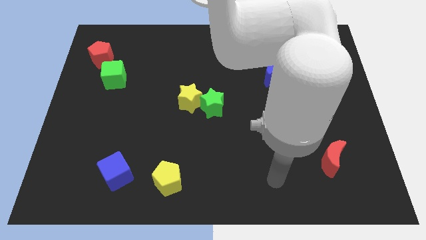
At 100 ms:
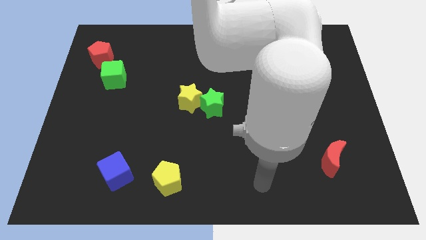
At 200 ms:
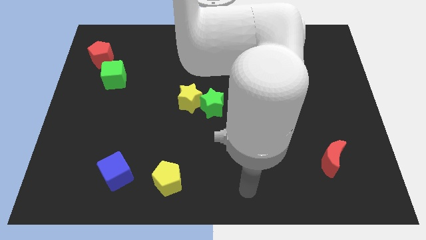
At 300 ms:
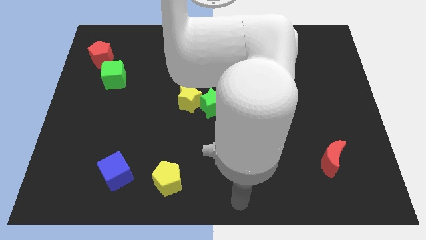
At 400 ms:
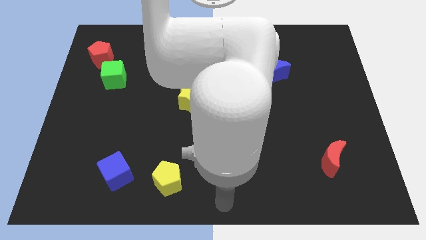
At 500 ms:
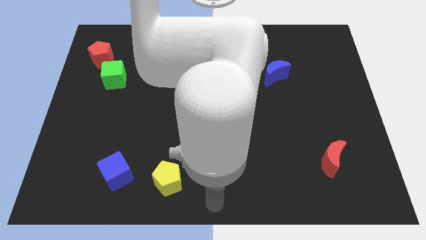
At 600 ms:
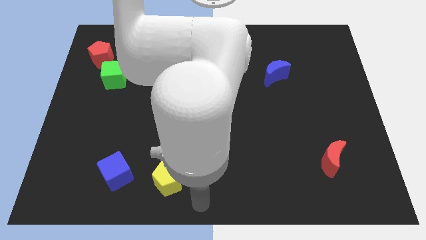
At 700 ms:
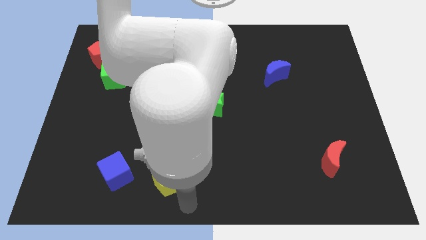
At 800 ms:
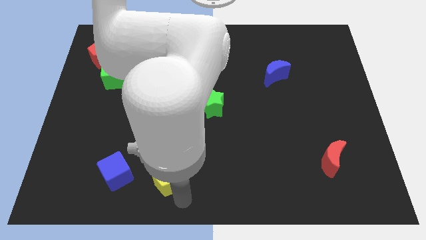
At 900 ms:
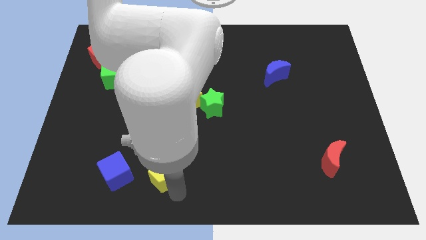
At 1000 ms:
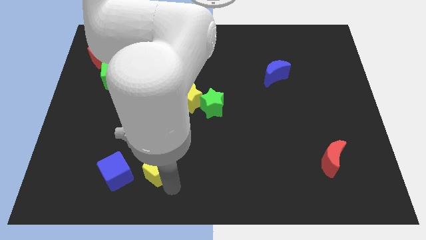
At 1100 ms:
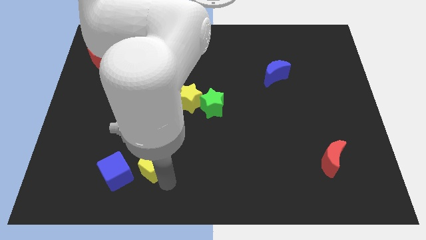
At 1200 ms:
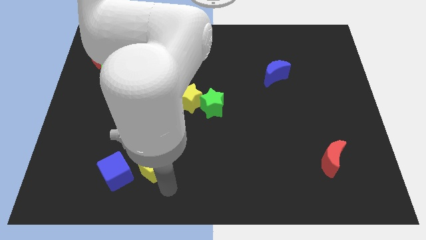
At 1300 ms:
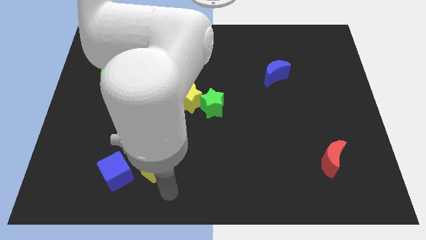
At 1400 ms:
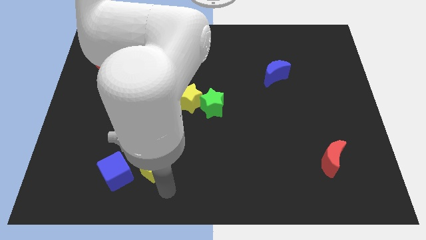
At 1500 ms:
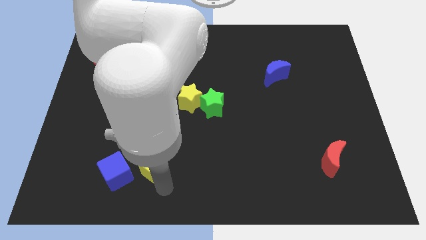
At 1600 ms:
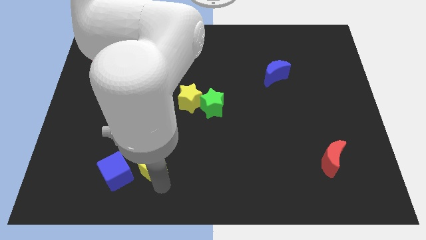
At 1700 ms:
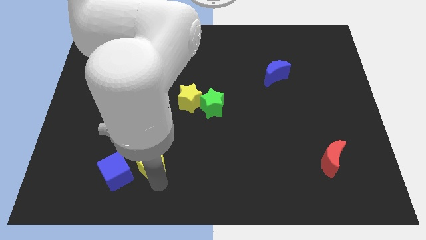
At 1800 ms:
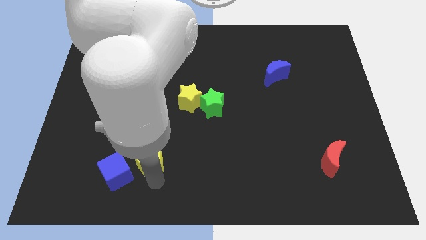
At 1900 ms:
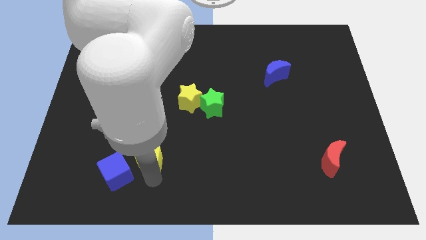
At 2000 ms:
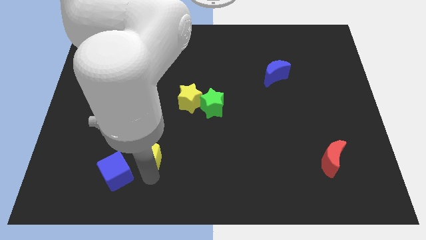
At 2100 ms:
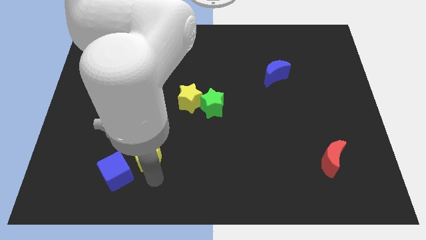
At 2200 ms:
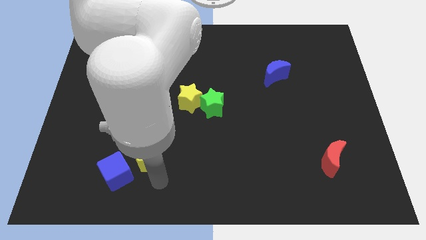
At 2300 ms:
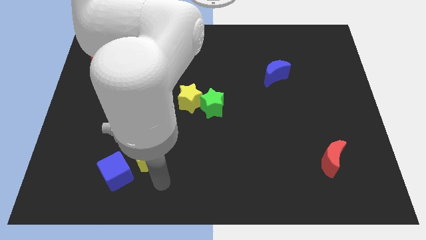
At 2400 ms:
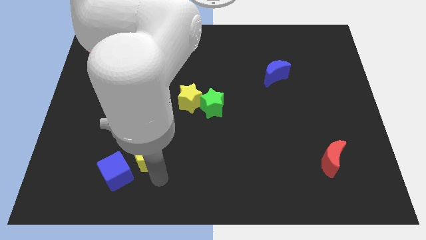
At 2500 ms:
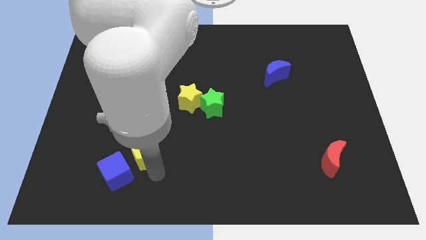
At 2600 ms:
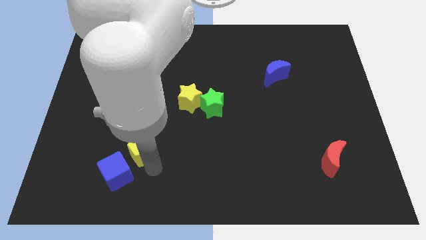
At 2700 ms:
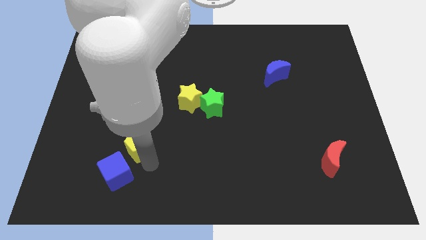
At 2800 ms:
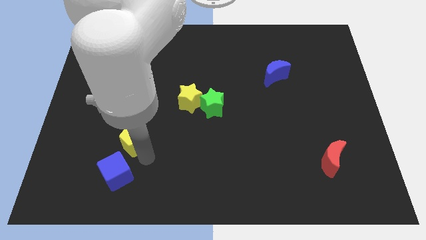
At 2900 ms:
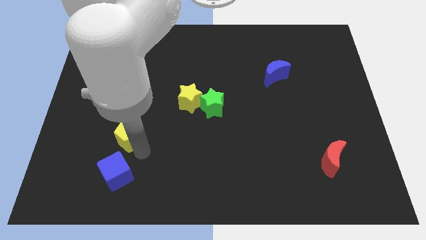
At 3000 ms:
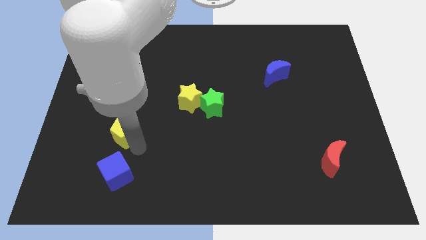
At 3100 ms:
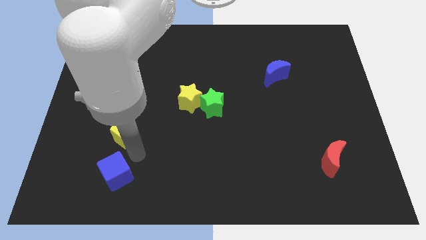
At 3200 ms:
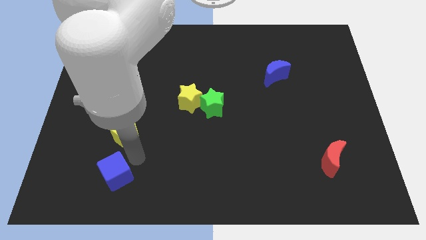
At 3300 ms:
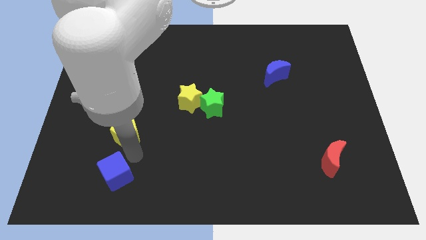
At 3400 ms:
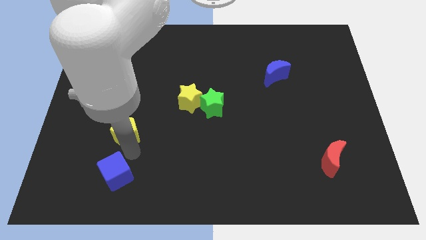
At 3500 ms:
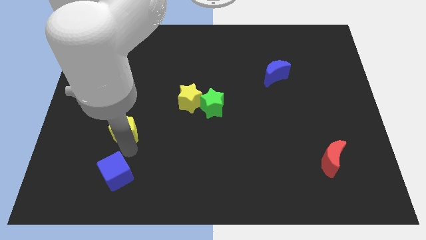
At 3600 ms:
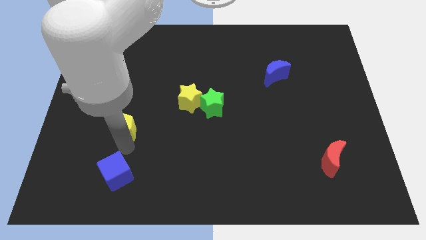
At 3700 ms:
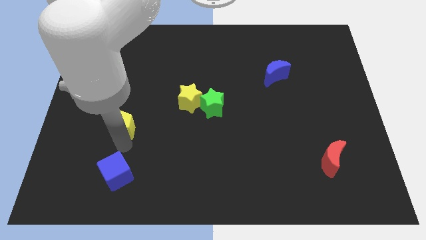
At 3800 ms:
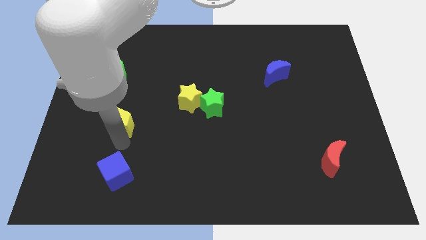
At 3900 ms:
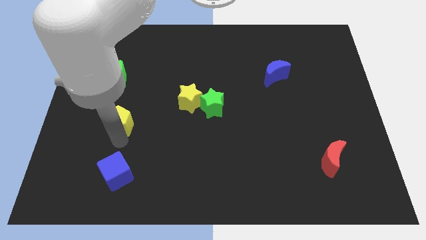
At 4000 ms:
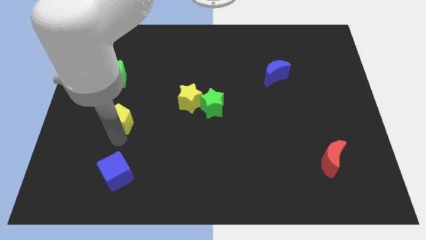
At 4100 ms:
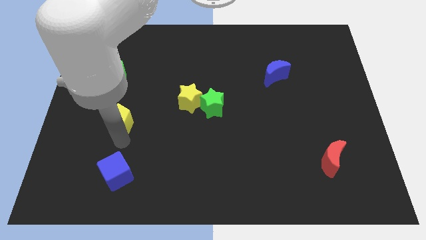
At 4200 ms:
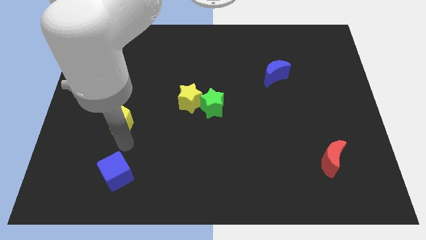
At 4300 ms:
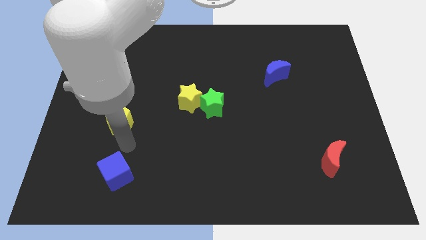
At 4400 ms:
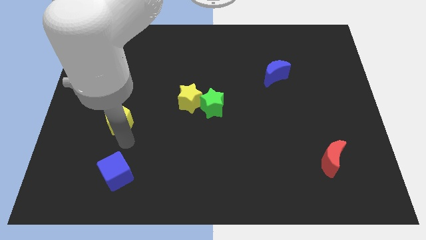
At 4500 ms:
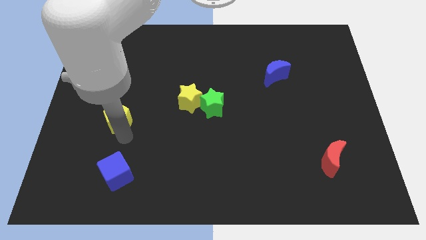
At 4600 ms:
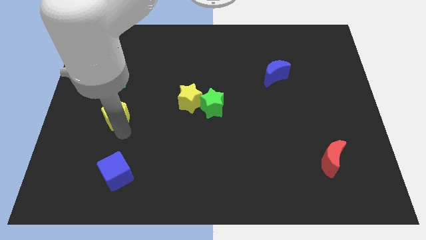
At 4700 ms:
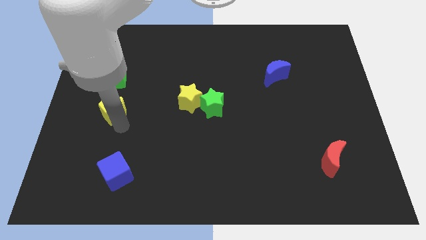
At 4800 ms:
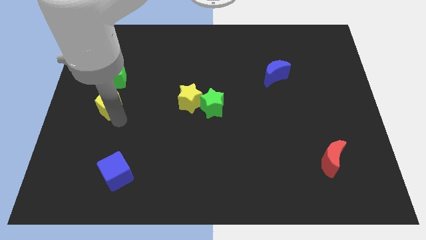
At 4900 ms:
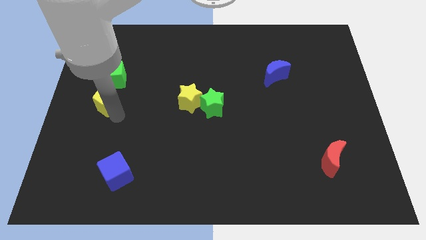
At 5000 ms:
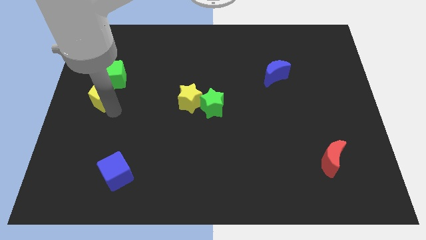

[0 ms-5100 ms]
slide the yellow pentagon to the bottom of the red pentagon
